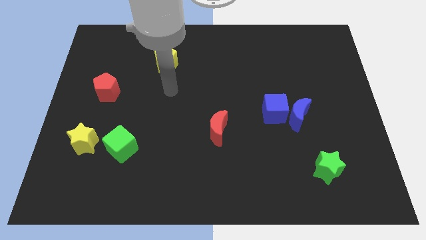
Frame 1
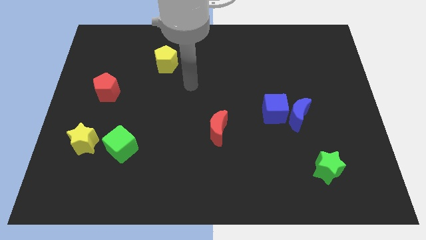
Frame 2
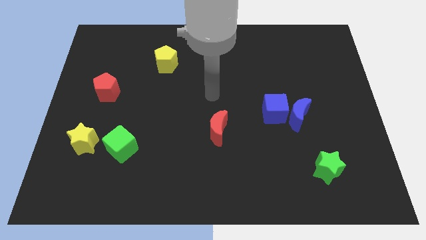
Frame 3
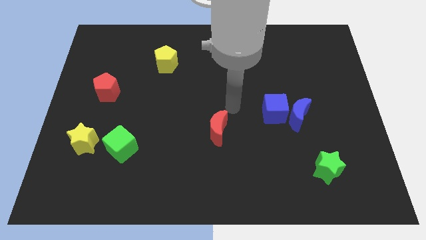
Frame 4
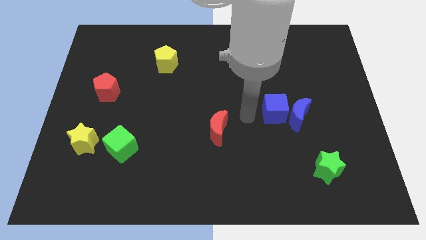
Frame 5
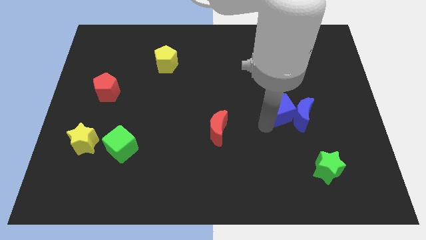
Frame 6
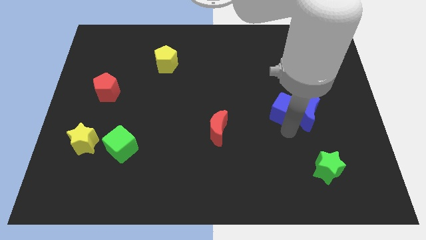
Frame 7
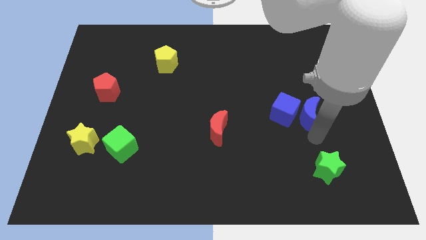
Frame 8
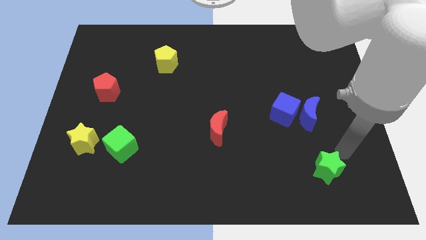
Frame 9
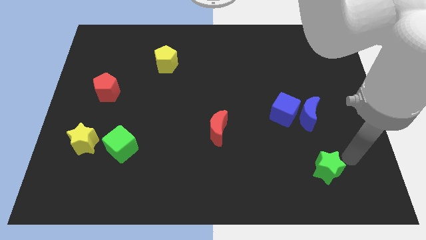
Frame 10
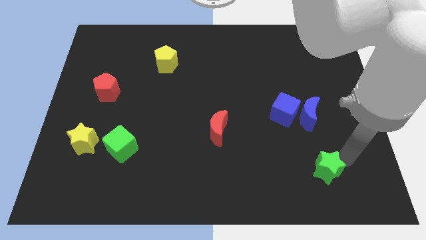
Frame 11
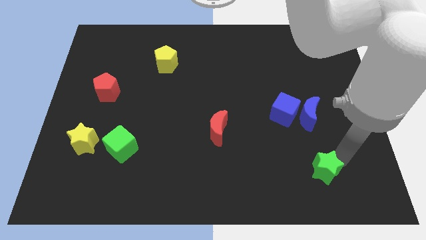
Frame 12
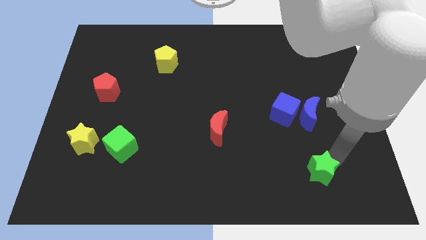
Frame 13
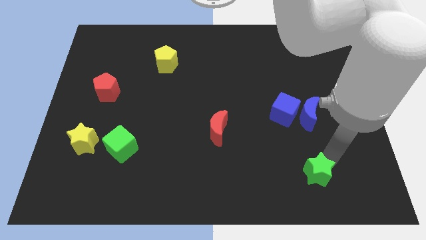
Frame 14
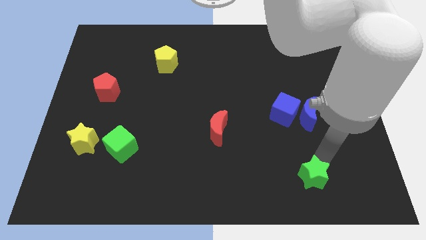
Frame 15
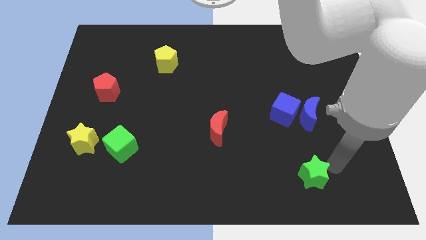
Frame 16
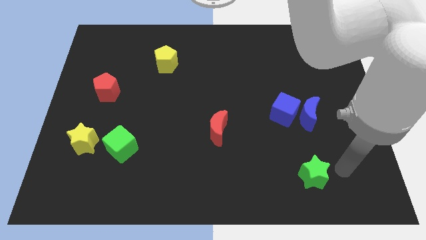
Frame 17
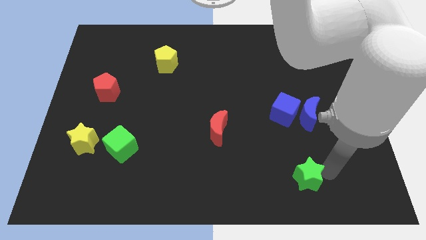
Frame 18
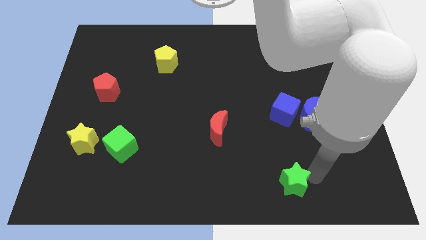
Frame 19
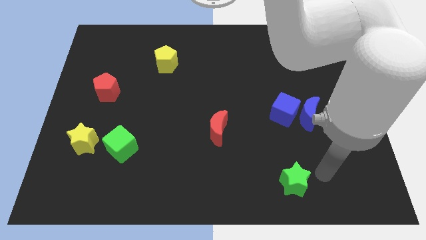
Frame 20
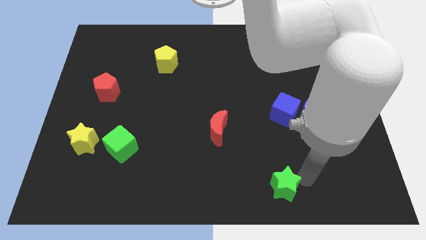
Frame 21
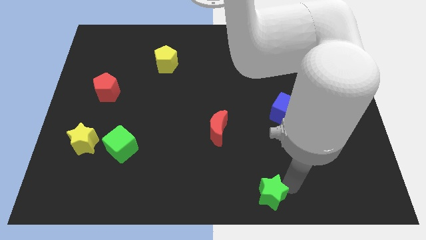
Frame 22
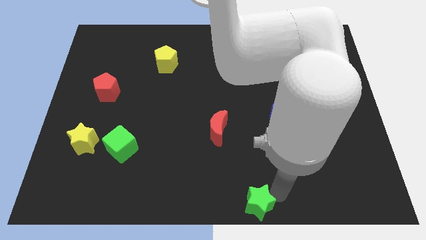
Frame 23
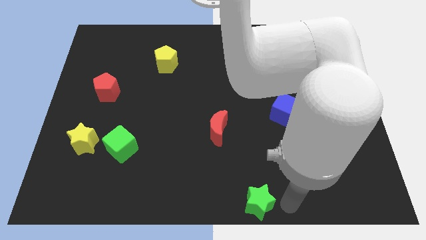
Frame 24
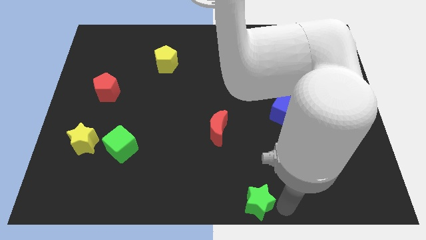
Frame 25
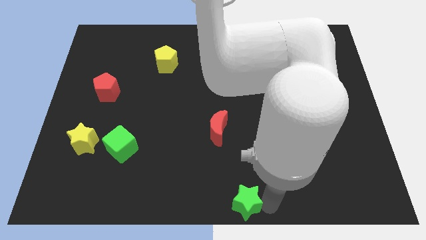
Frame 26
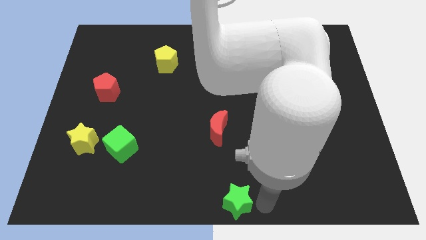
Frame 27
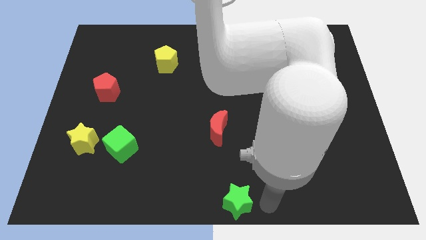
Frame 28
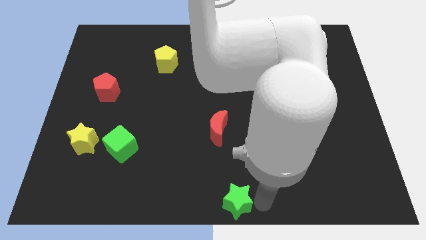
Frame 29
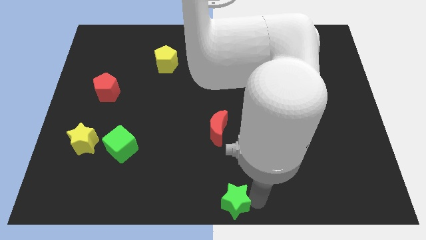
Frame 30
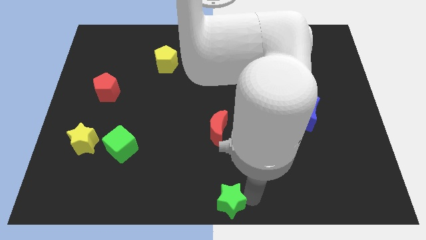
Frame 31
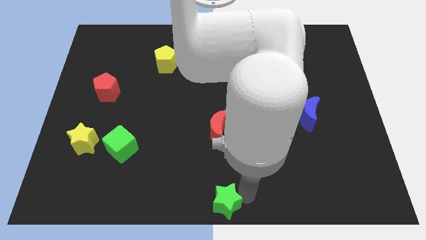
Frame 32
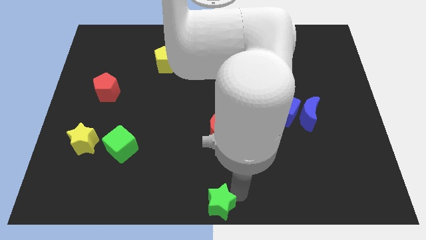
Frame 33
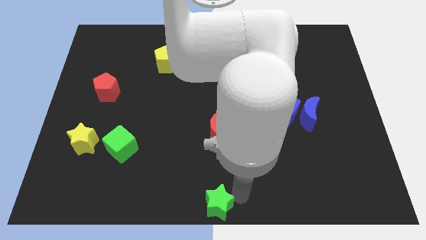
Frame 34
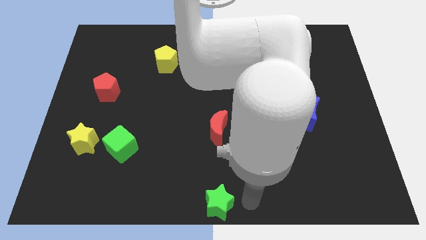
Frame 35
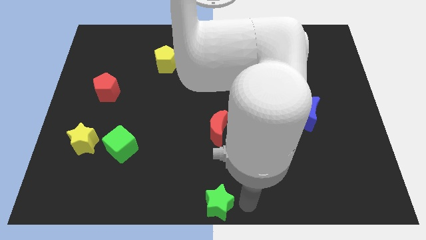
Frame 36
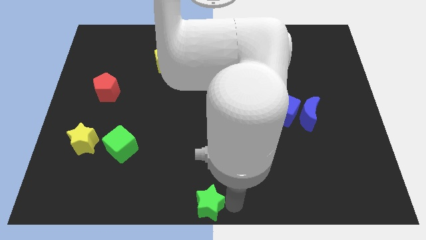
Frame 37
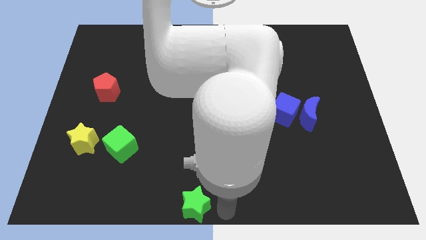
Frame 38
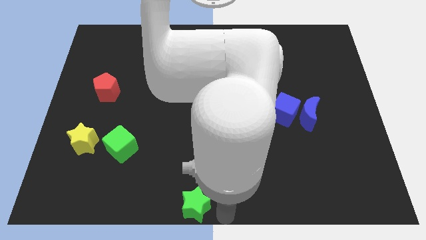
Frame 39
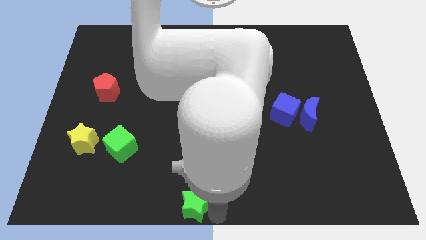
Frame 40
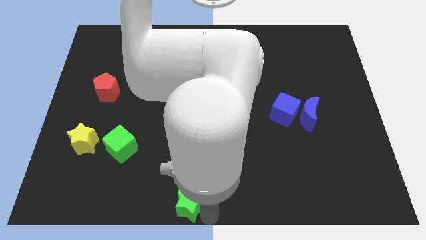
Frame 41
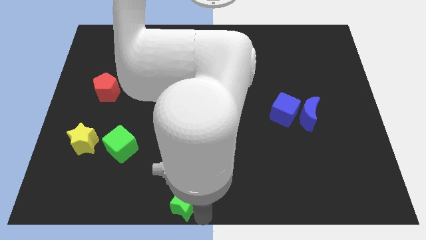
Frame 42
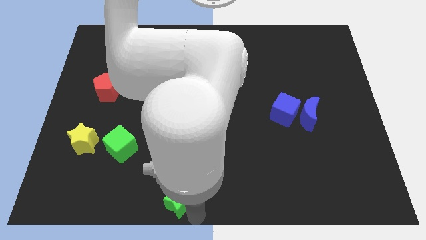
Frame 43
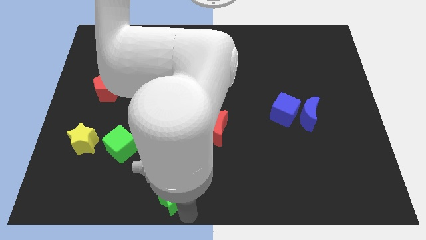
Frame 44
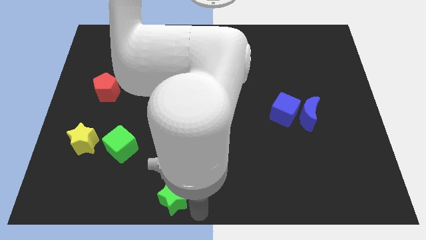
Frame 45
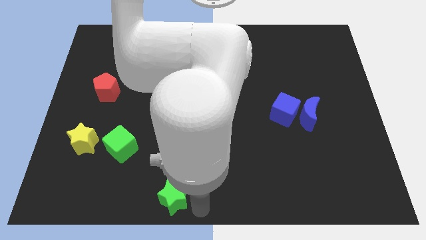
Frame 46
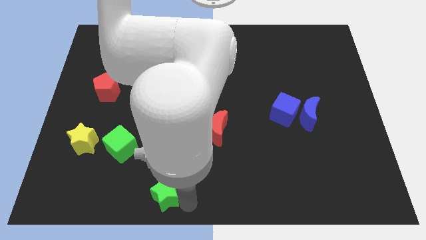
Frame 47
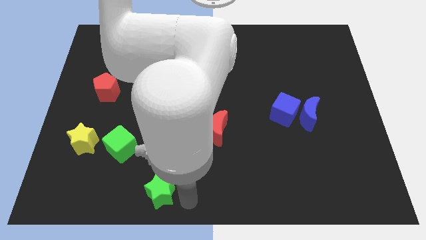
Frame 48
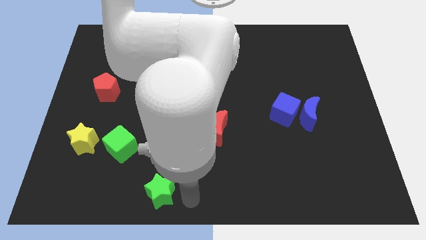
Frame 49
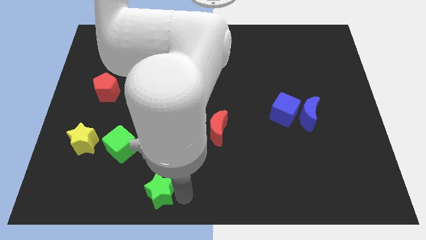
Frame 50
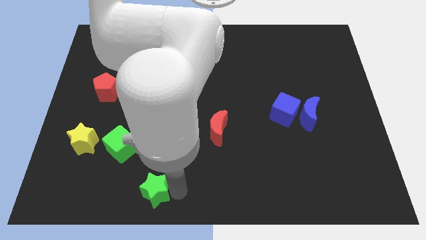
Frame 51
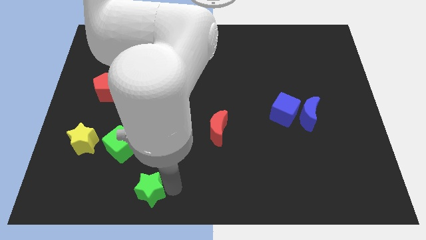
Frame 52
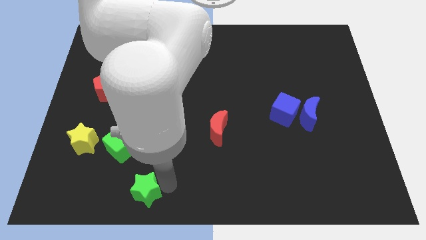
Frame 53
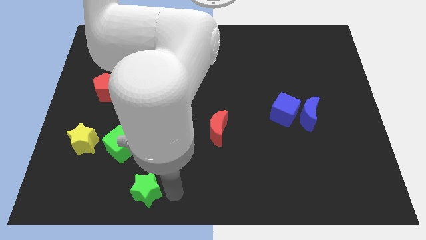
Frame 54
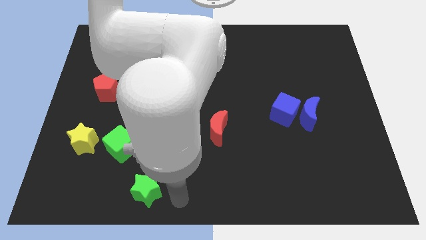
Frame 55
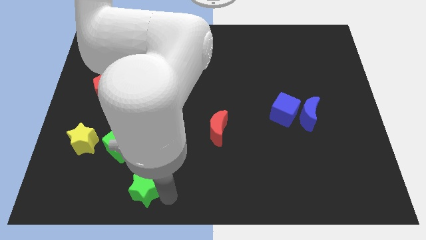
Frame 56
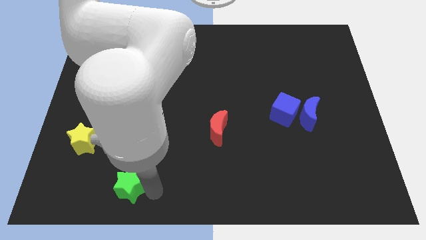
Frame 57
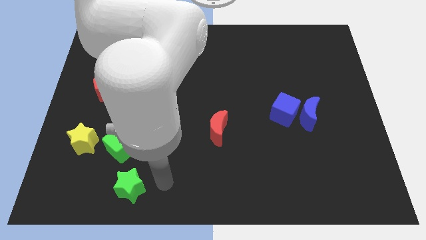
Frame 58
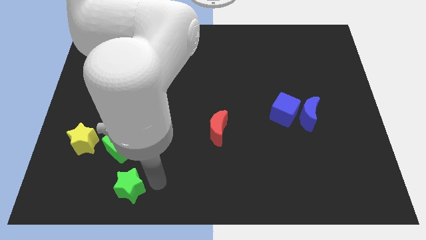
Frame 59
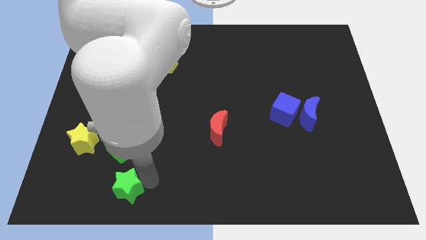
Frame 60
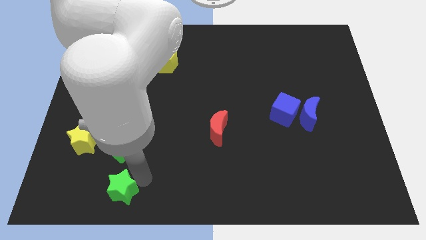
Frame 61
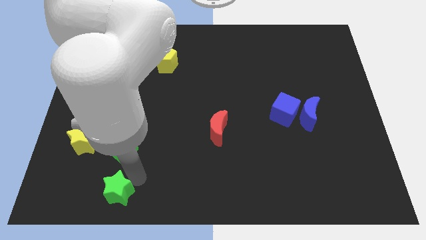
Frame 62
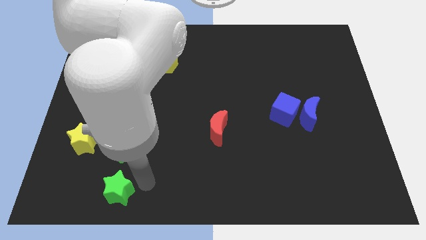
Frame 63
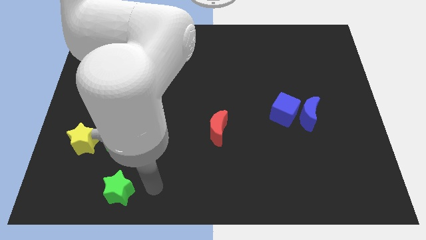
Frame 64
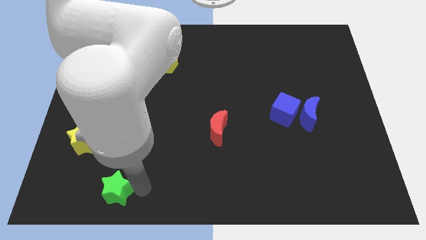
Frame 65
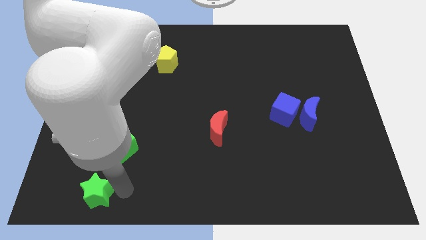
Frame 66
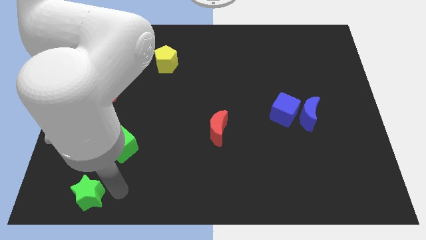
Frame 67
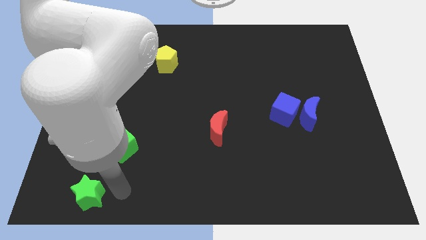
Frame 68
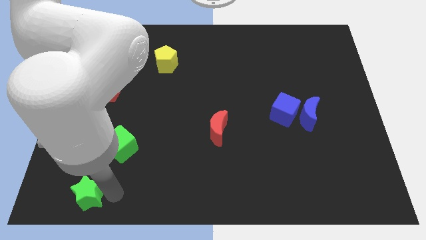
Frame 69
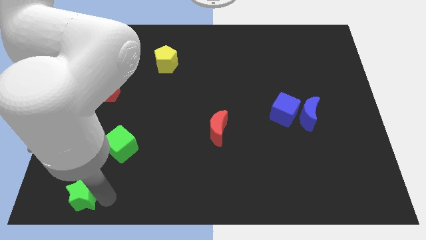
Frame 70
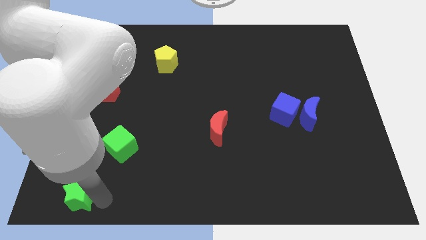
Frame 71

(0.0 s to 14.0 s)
slide the green star to the lower left corner
